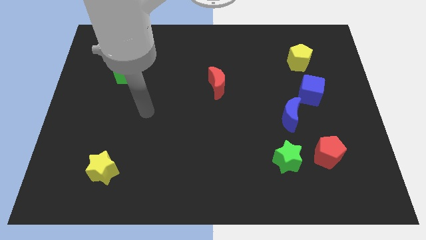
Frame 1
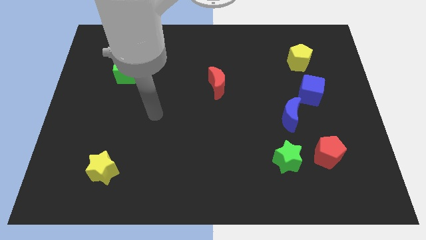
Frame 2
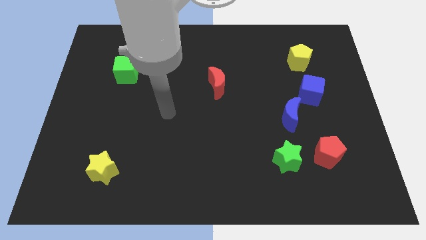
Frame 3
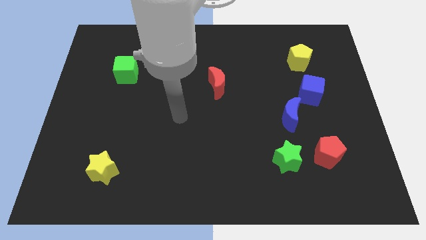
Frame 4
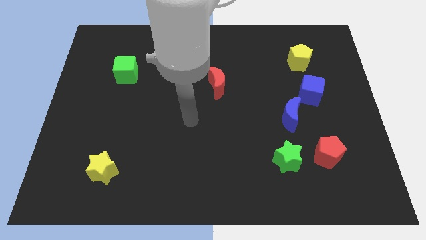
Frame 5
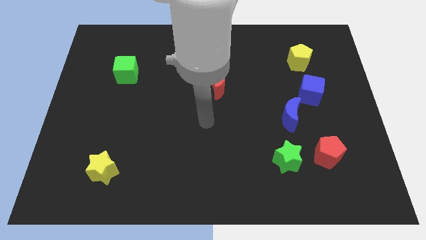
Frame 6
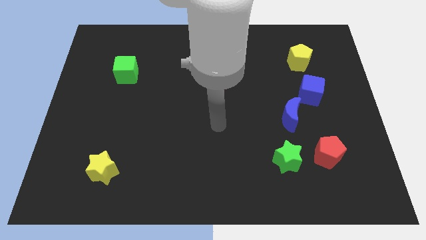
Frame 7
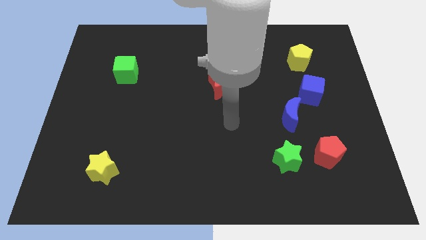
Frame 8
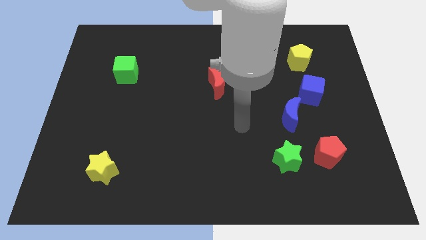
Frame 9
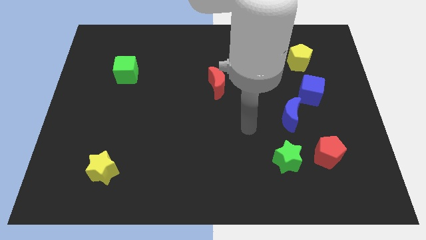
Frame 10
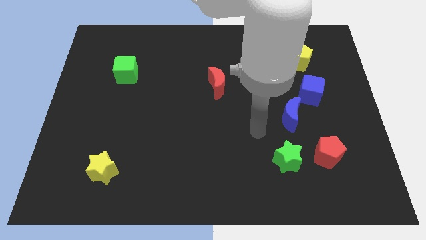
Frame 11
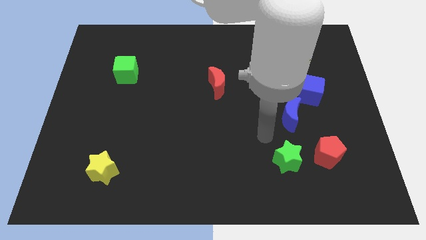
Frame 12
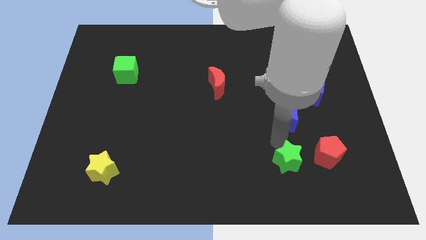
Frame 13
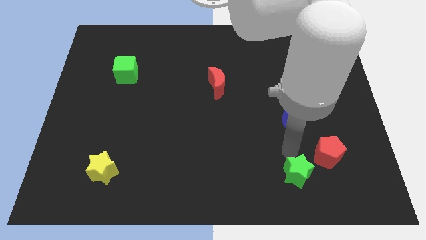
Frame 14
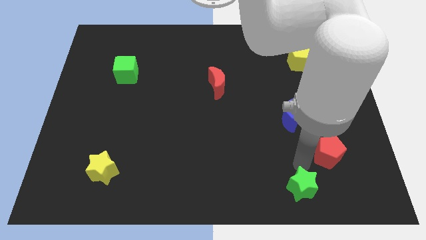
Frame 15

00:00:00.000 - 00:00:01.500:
pull the red pentagon apart from the green star

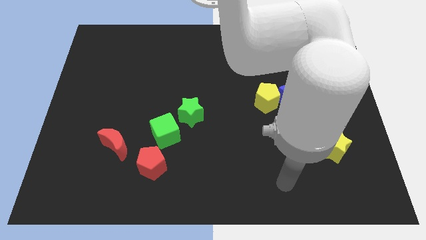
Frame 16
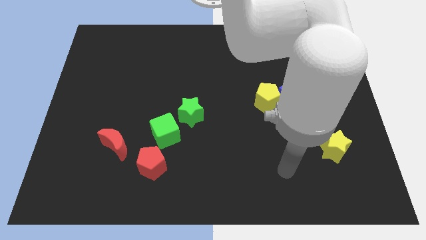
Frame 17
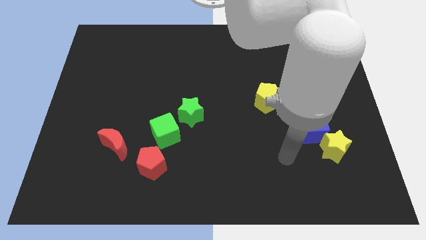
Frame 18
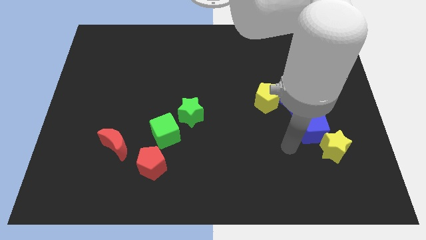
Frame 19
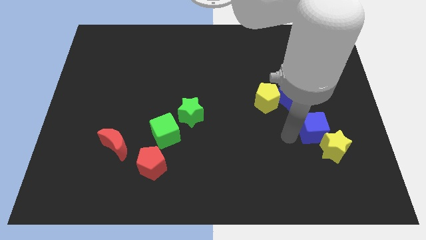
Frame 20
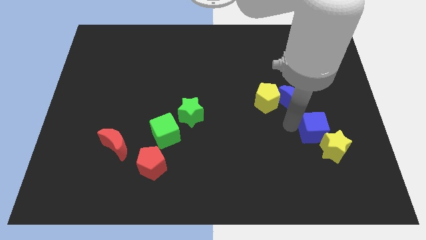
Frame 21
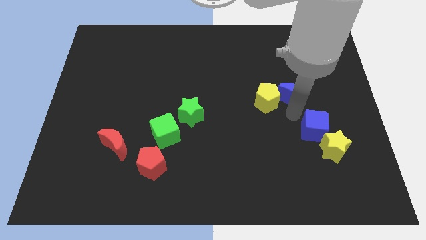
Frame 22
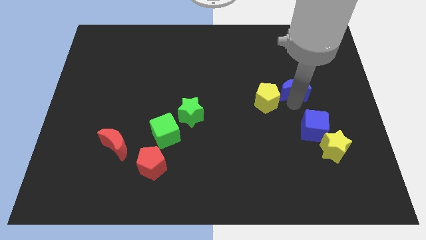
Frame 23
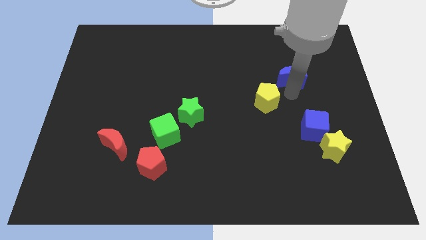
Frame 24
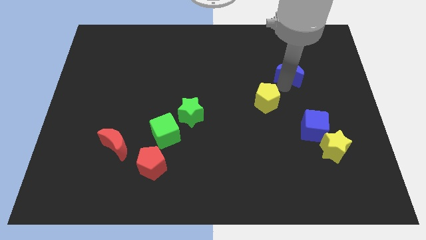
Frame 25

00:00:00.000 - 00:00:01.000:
move the yellow pentagon away from the blue moon

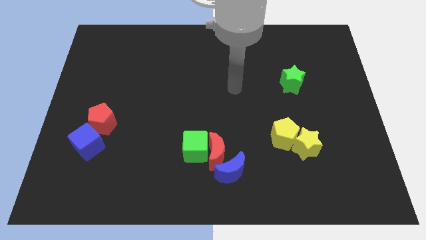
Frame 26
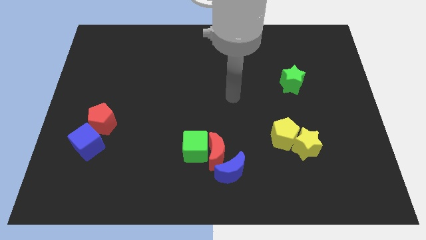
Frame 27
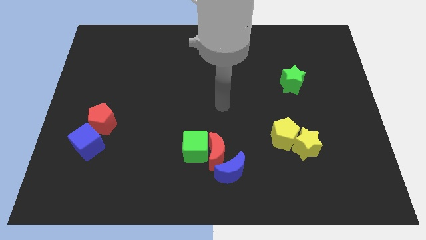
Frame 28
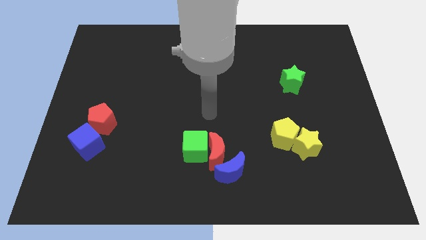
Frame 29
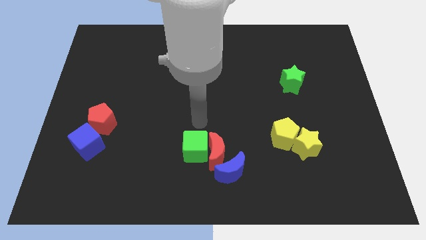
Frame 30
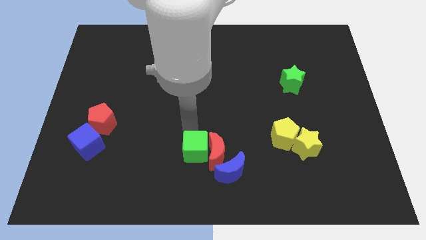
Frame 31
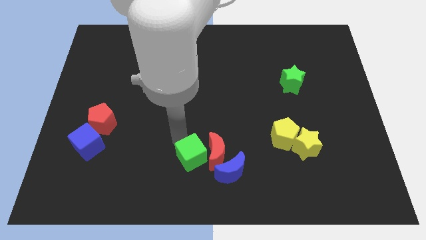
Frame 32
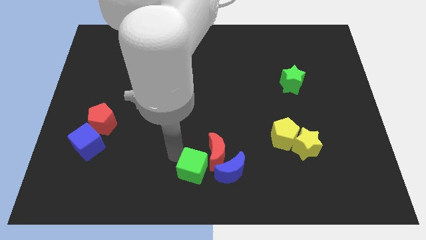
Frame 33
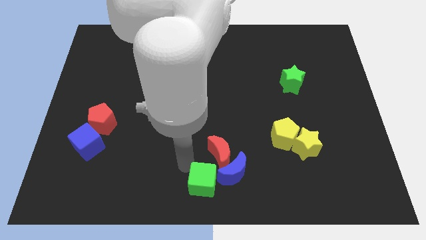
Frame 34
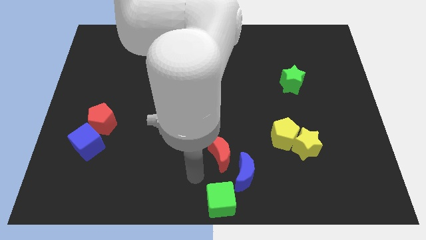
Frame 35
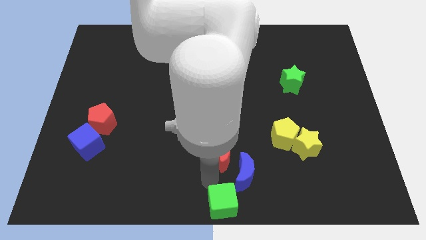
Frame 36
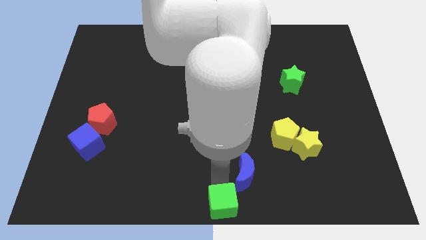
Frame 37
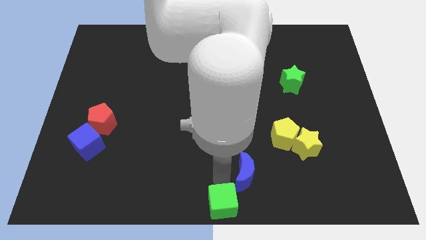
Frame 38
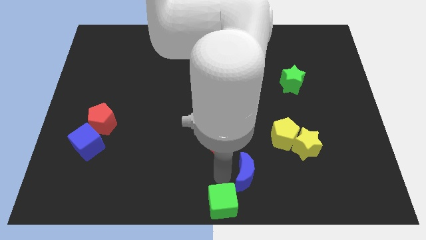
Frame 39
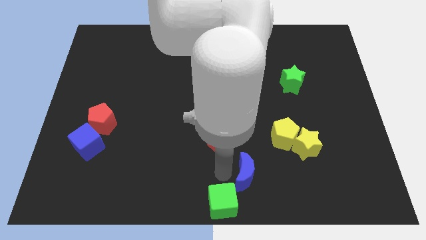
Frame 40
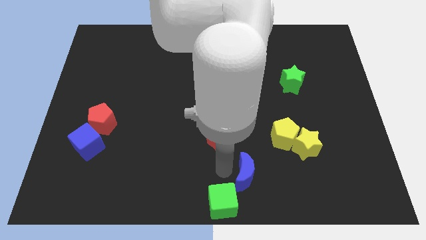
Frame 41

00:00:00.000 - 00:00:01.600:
separate the red moon from the green cube and blue moon

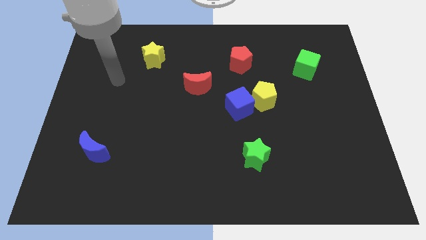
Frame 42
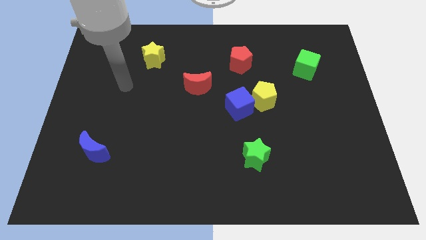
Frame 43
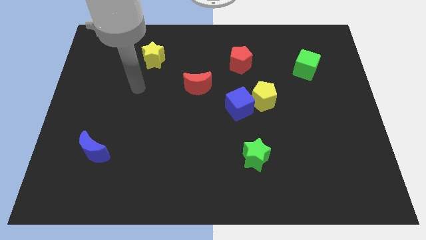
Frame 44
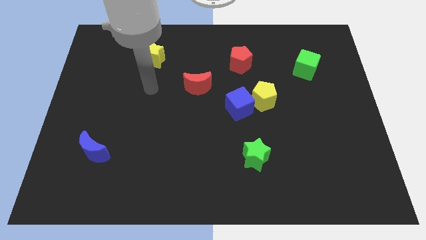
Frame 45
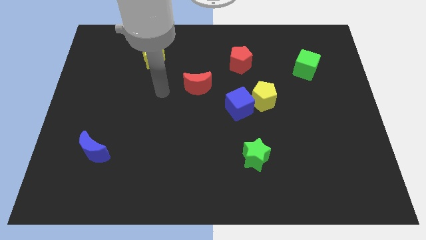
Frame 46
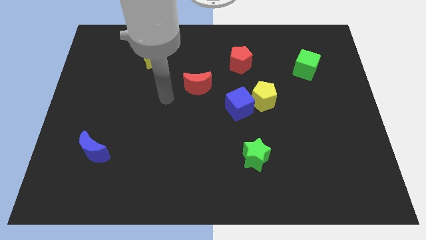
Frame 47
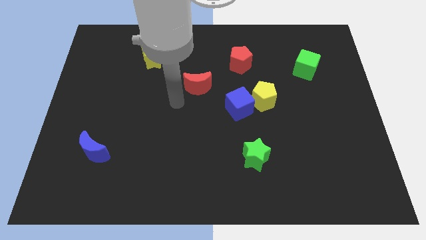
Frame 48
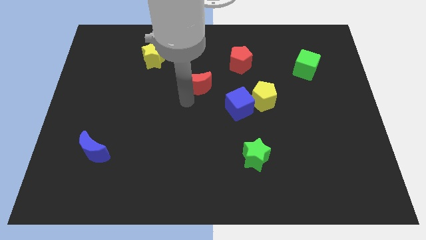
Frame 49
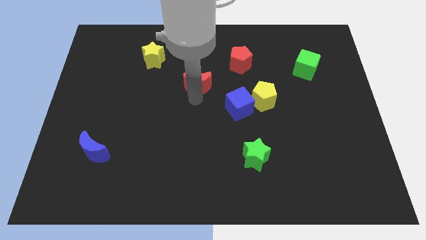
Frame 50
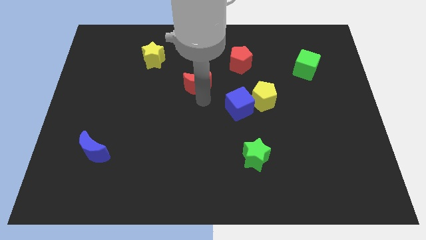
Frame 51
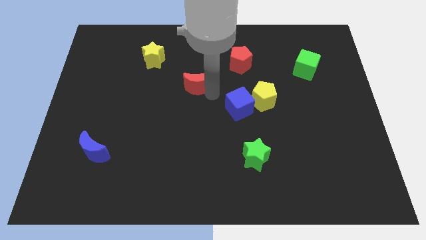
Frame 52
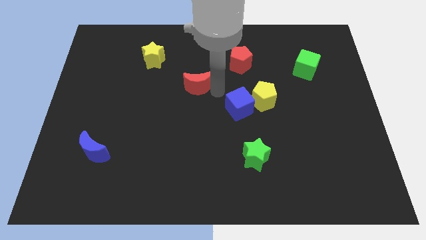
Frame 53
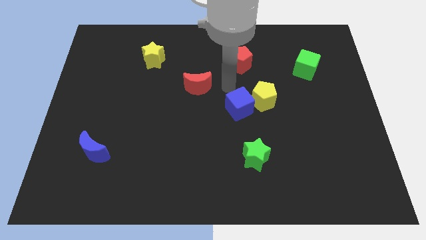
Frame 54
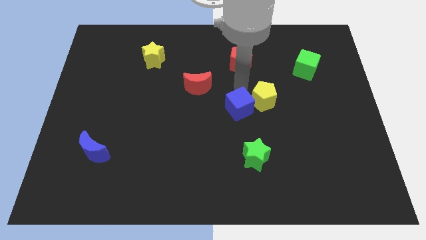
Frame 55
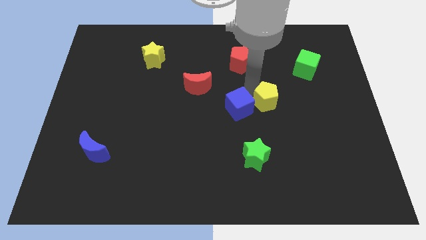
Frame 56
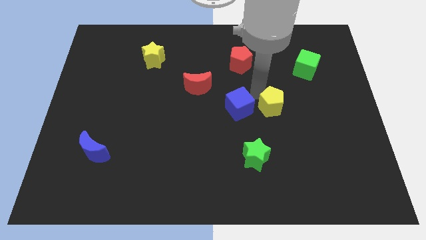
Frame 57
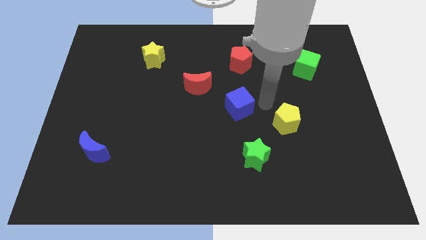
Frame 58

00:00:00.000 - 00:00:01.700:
move the blue cube away from the yellow pentagon

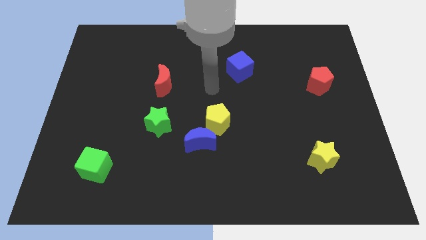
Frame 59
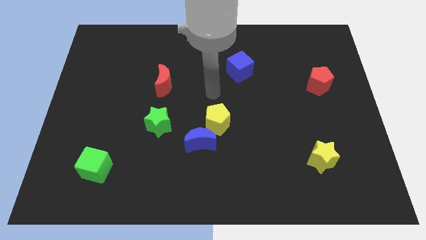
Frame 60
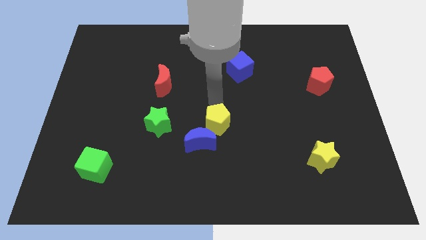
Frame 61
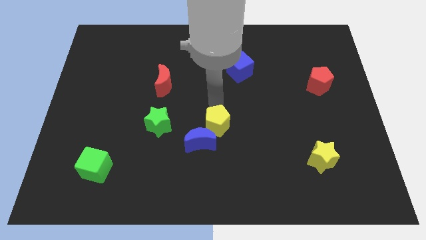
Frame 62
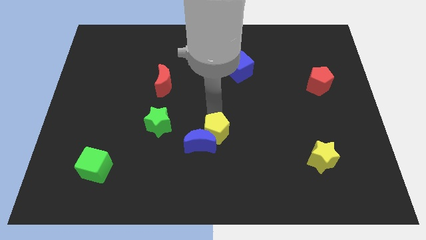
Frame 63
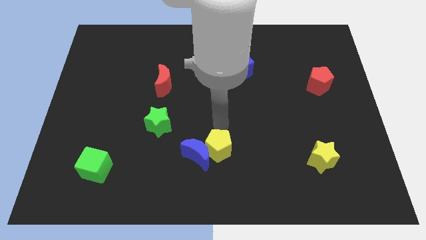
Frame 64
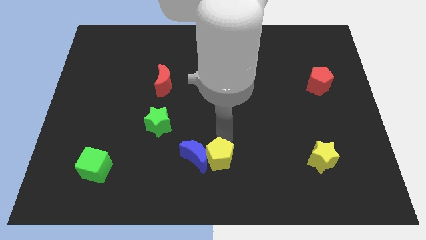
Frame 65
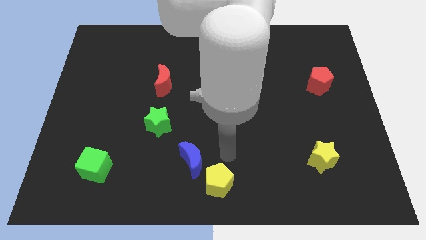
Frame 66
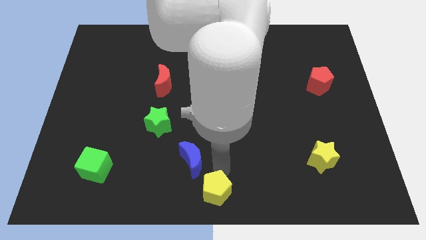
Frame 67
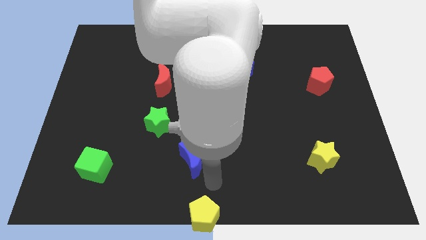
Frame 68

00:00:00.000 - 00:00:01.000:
separate the blue moon from the yellow pentagon

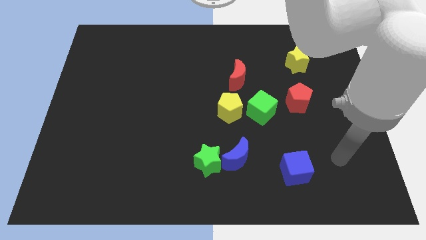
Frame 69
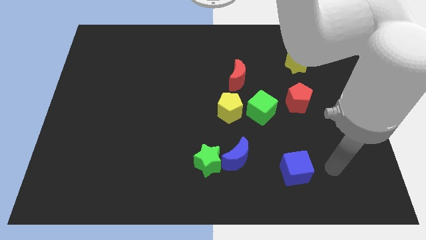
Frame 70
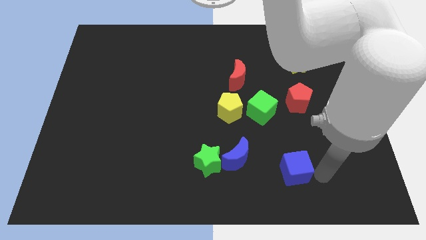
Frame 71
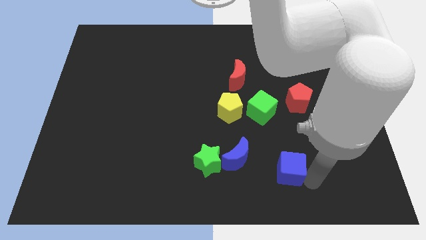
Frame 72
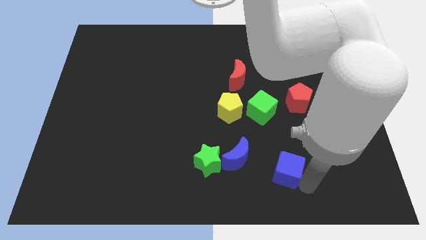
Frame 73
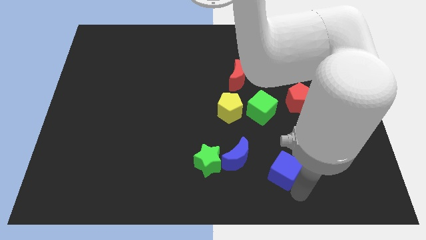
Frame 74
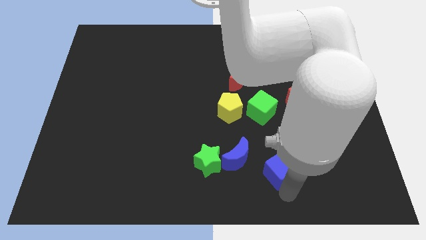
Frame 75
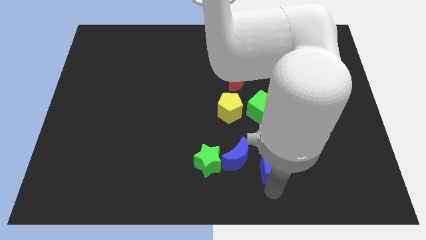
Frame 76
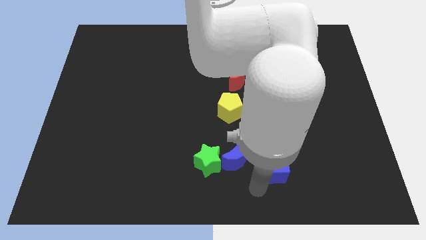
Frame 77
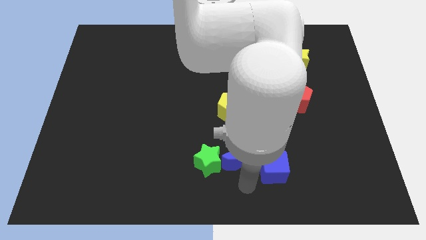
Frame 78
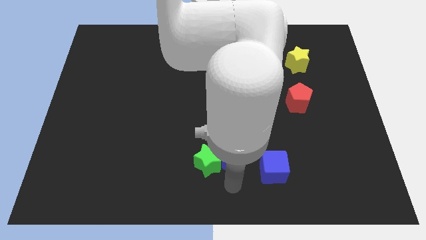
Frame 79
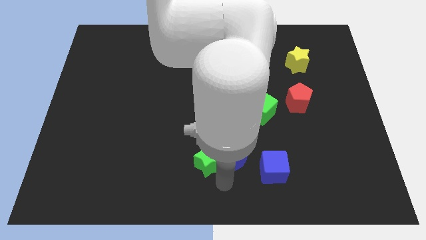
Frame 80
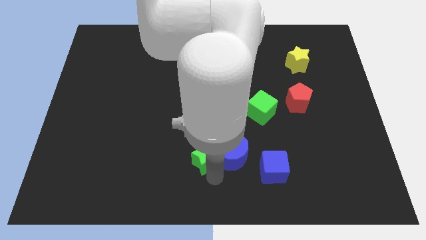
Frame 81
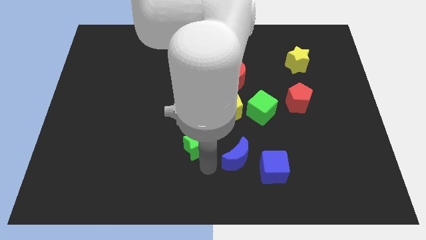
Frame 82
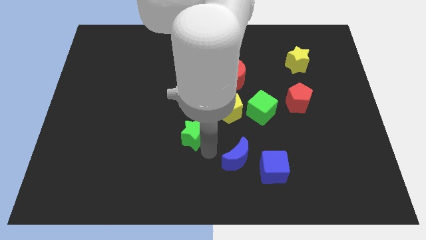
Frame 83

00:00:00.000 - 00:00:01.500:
pull the blue moon apart from the green star

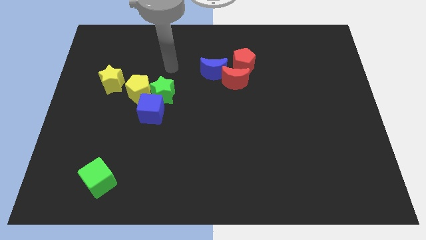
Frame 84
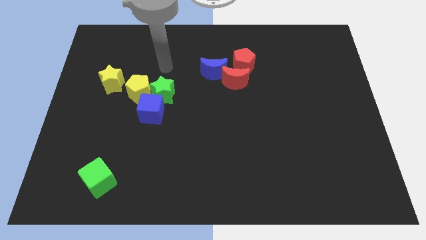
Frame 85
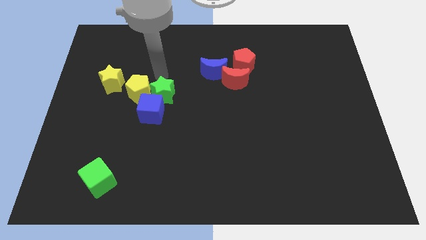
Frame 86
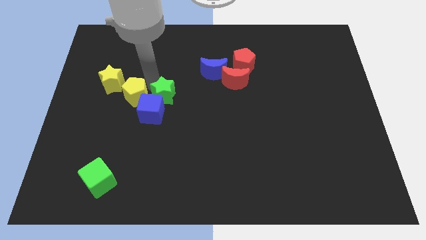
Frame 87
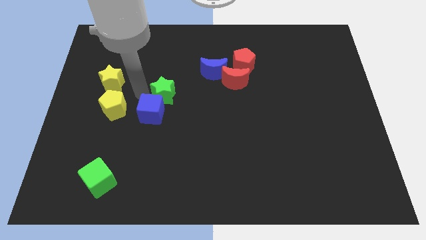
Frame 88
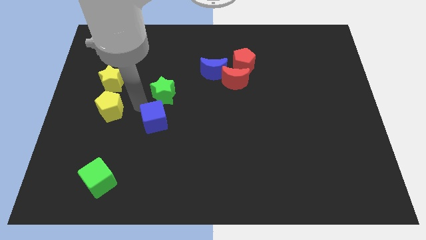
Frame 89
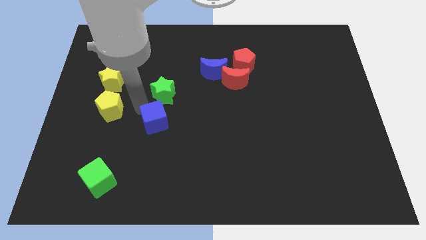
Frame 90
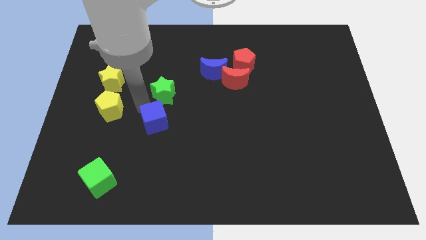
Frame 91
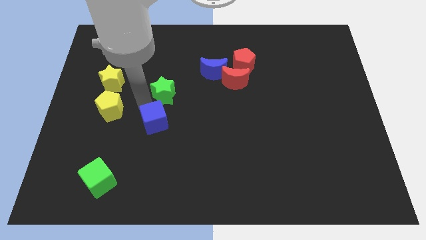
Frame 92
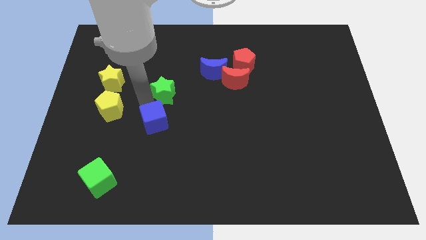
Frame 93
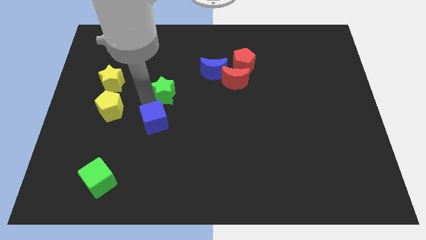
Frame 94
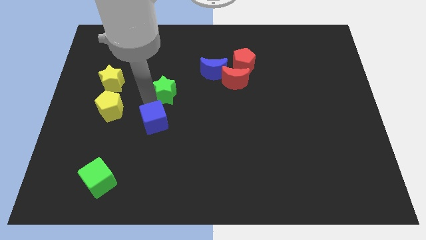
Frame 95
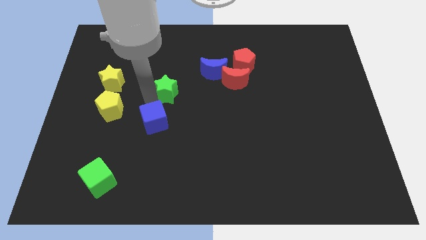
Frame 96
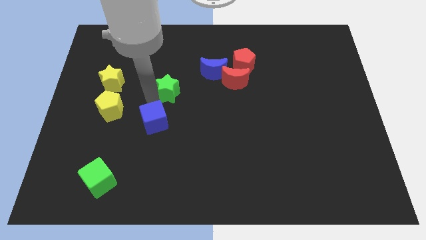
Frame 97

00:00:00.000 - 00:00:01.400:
move the green star away from the blue cube and yellow pentagon
